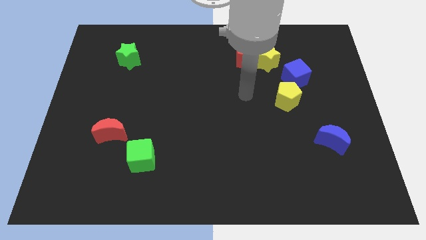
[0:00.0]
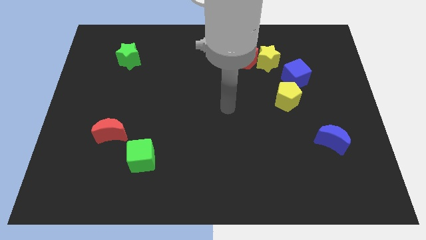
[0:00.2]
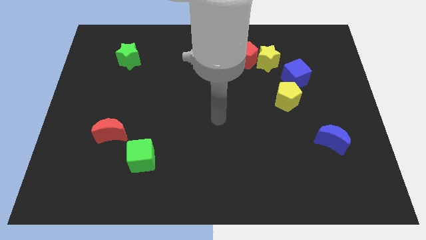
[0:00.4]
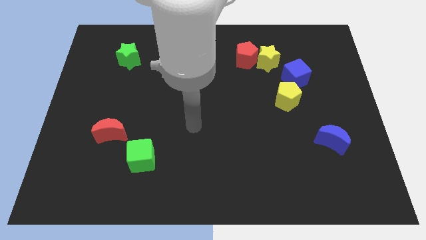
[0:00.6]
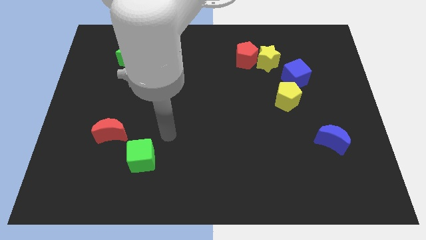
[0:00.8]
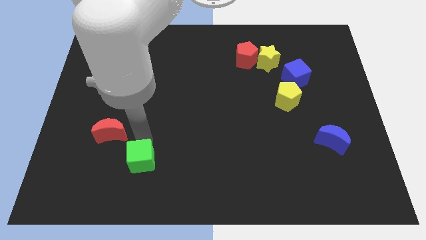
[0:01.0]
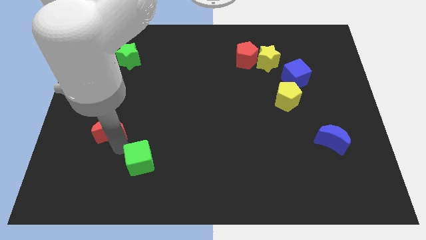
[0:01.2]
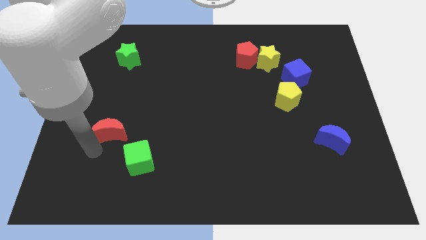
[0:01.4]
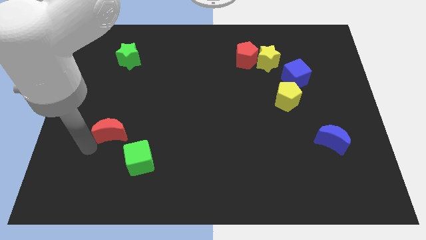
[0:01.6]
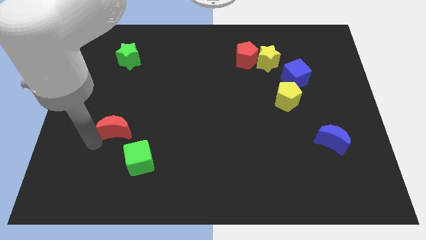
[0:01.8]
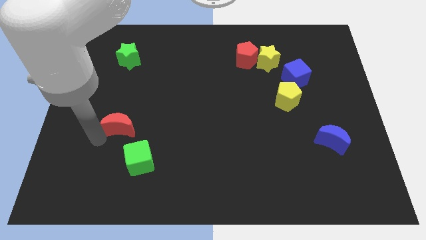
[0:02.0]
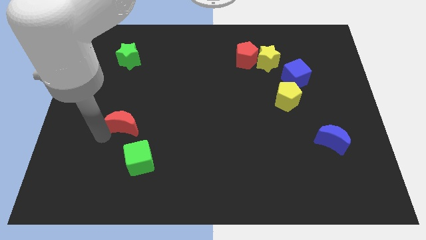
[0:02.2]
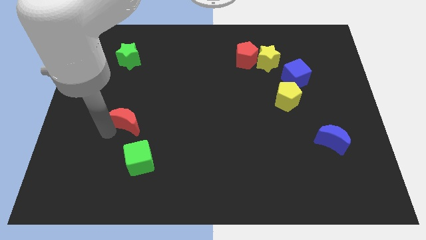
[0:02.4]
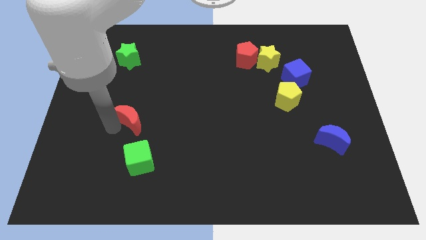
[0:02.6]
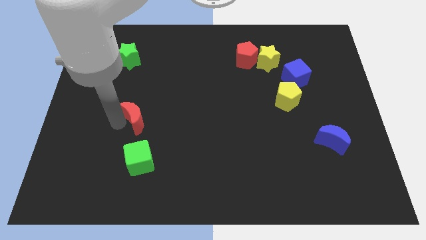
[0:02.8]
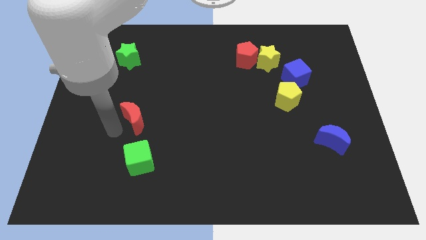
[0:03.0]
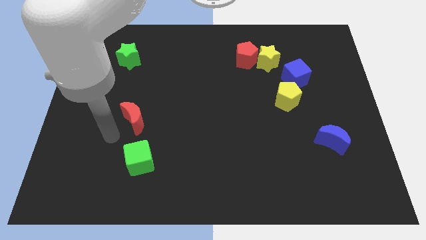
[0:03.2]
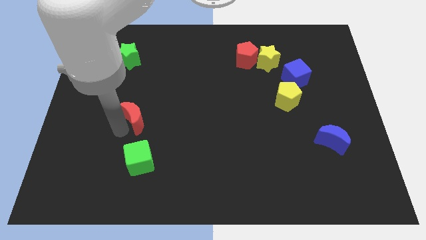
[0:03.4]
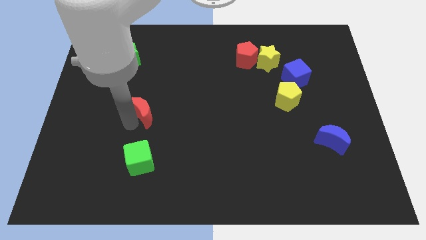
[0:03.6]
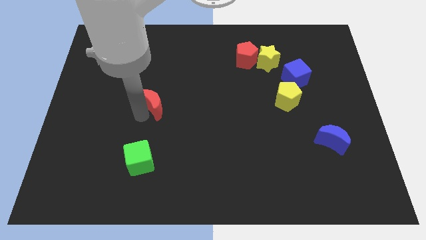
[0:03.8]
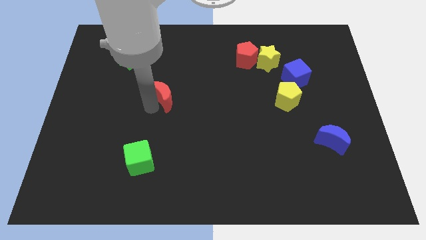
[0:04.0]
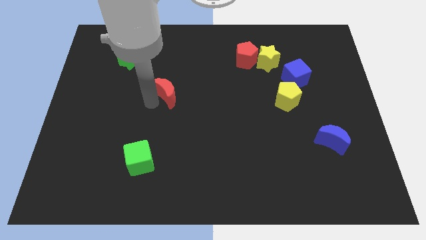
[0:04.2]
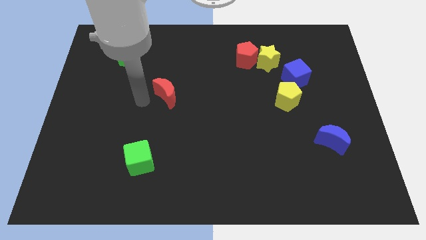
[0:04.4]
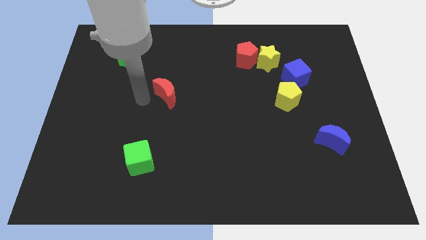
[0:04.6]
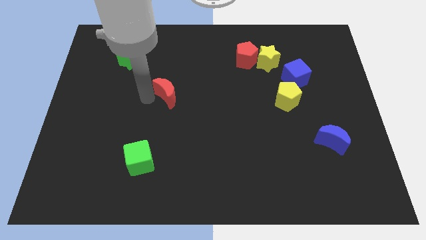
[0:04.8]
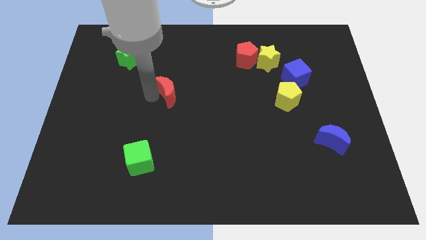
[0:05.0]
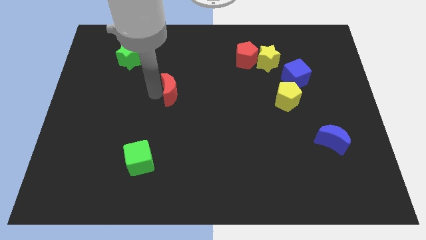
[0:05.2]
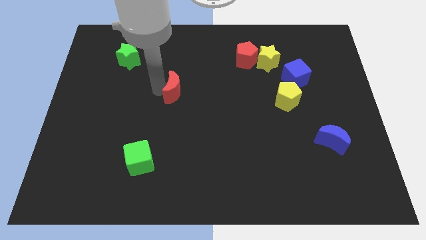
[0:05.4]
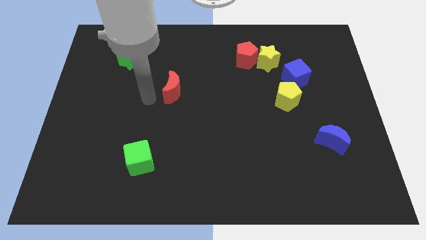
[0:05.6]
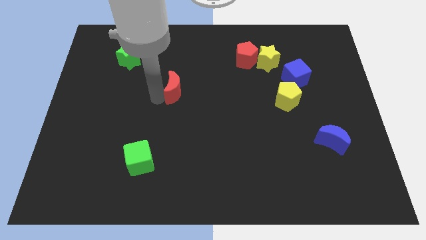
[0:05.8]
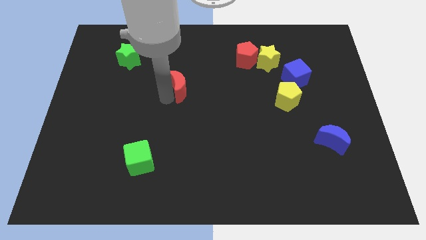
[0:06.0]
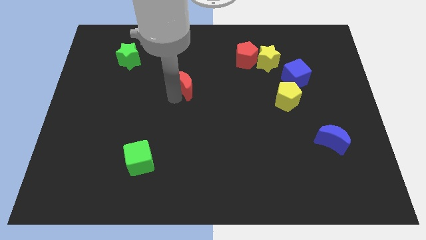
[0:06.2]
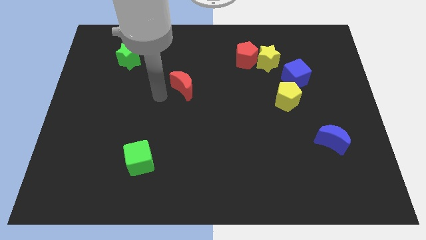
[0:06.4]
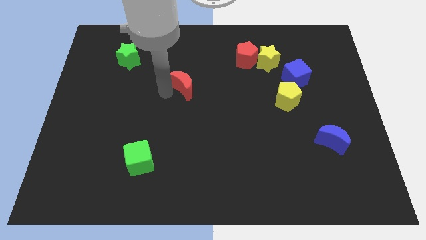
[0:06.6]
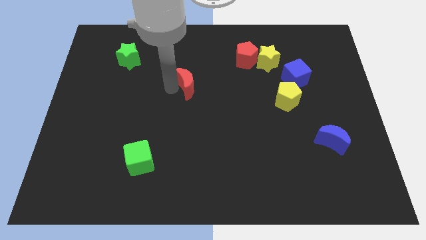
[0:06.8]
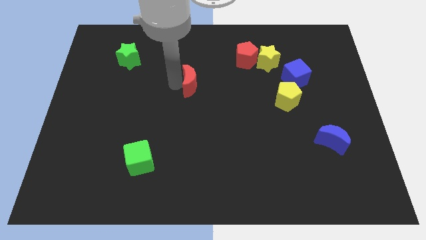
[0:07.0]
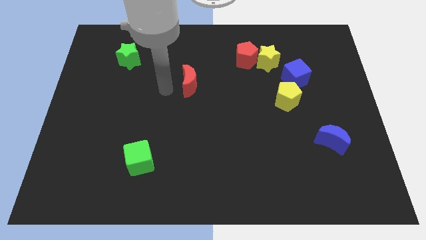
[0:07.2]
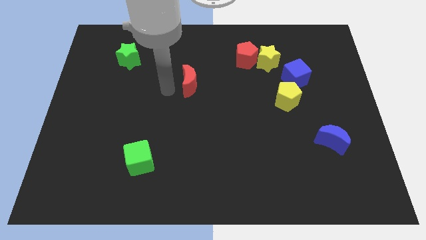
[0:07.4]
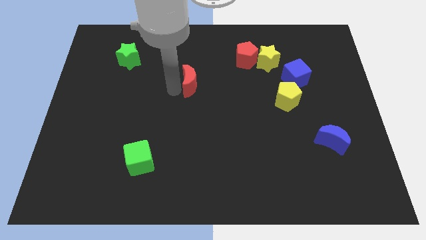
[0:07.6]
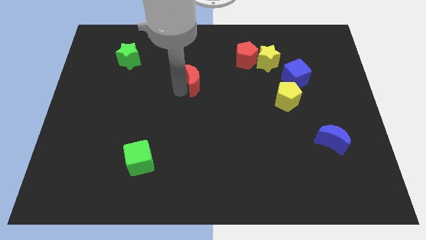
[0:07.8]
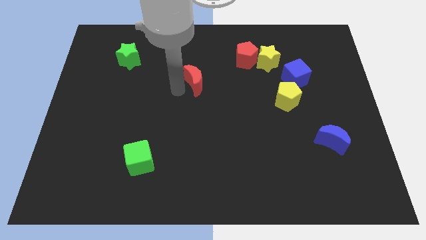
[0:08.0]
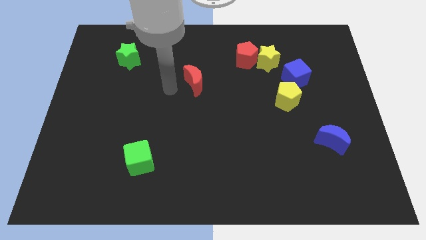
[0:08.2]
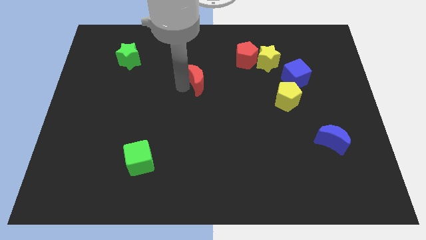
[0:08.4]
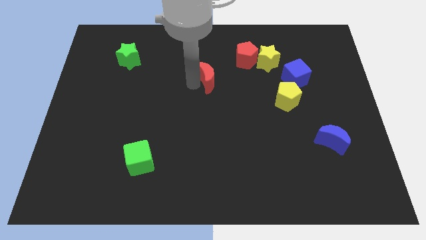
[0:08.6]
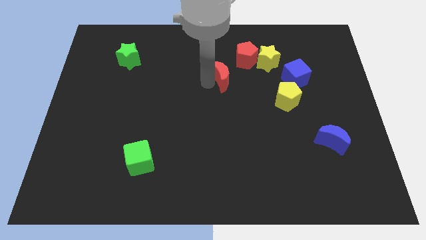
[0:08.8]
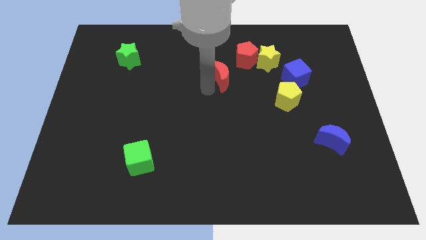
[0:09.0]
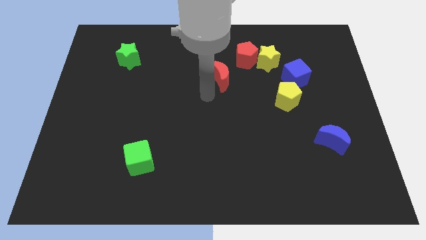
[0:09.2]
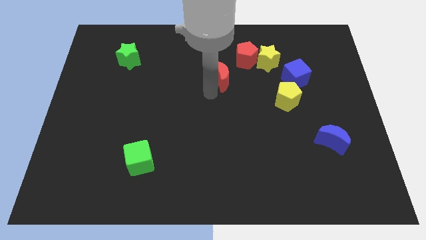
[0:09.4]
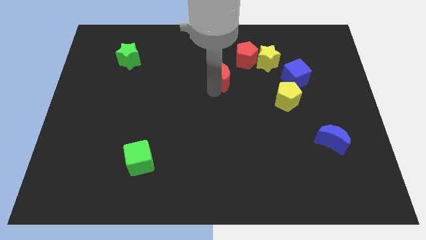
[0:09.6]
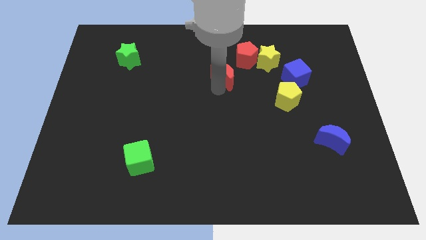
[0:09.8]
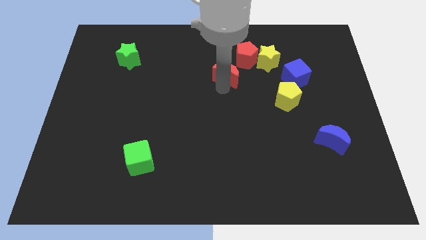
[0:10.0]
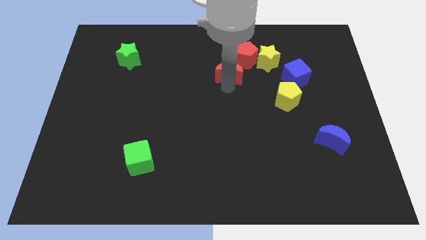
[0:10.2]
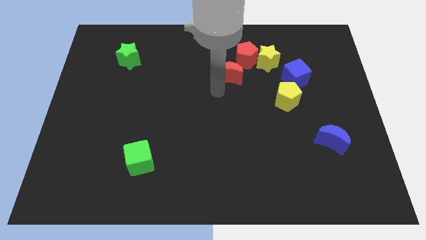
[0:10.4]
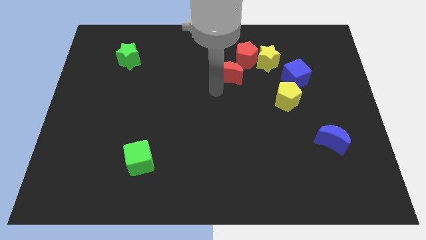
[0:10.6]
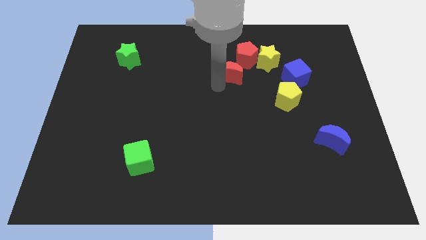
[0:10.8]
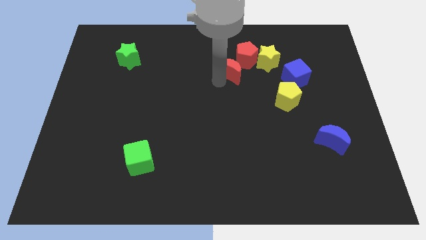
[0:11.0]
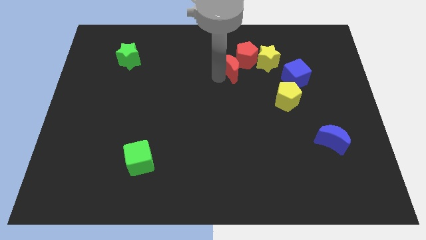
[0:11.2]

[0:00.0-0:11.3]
move the red moon close to the red pentagon

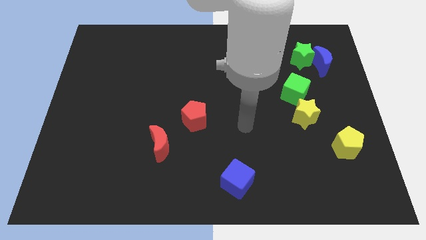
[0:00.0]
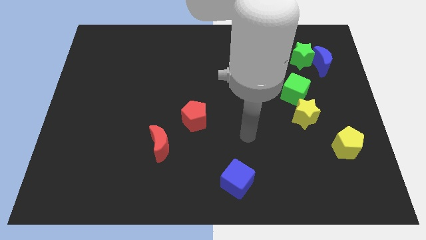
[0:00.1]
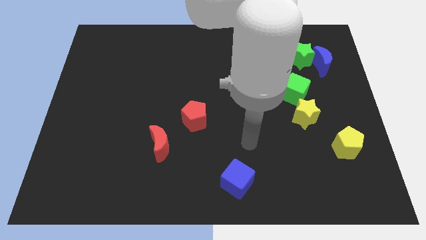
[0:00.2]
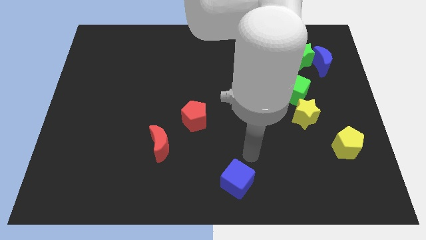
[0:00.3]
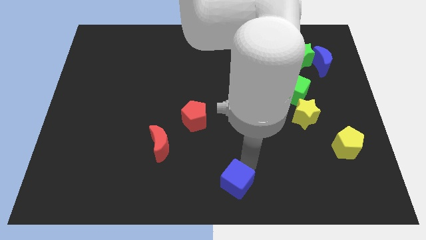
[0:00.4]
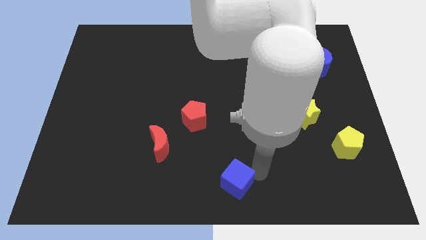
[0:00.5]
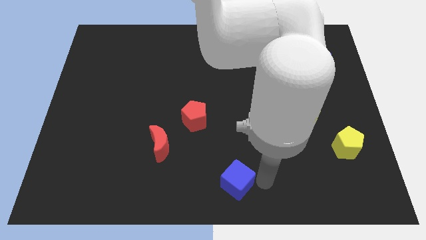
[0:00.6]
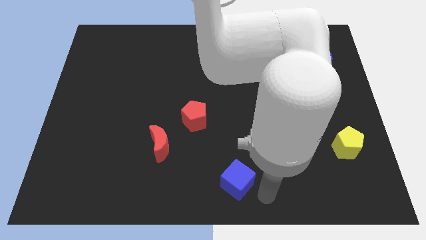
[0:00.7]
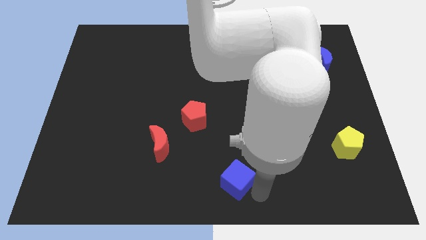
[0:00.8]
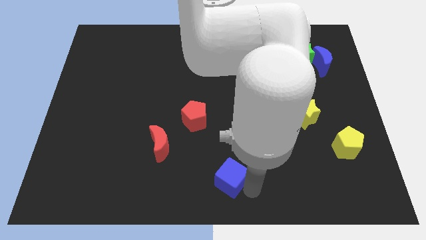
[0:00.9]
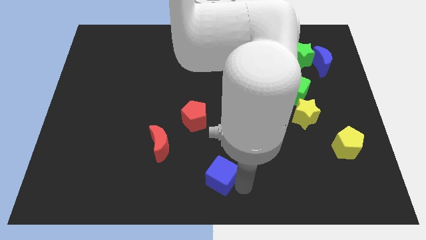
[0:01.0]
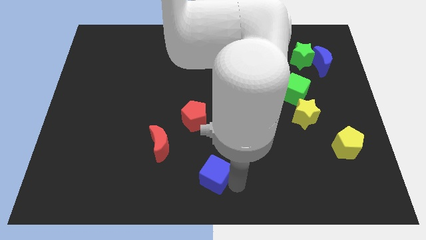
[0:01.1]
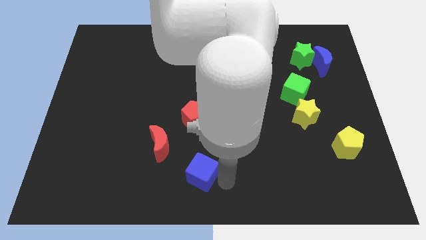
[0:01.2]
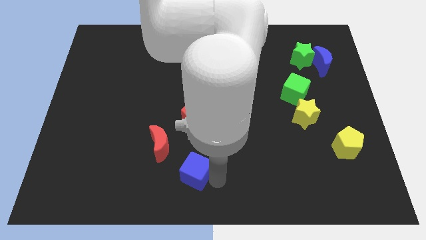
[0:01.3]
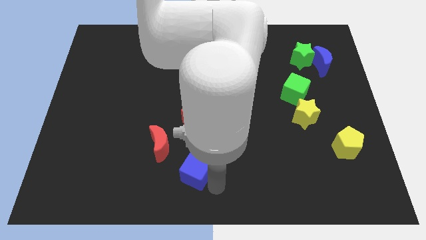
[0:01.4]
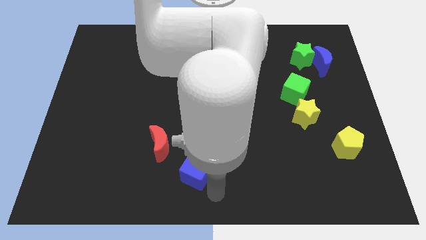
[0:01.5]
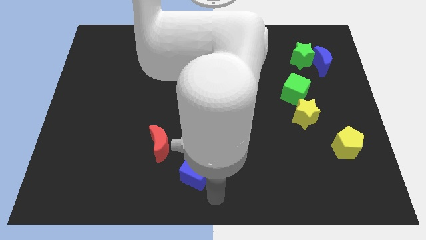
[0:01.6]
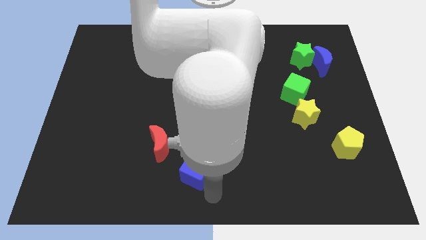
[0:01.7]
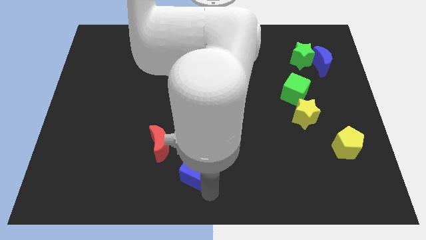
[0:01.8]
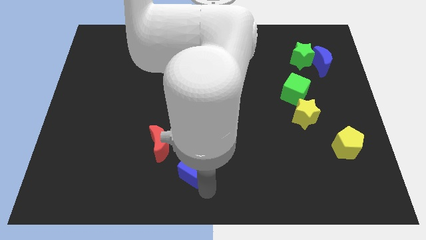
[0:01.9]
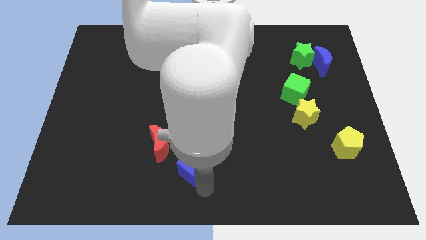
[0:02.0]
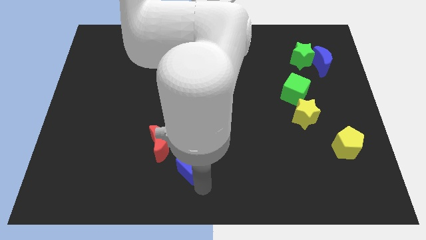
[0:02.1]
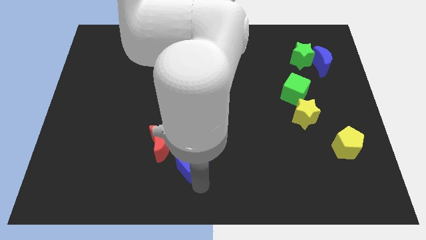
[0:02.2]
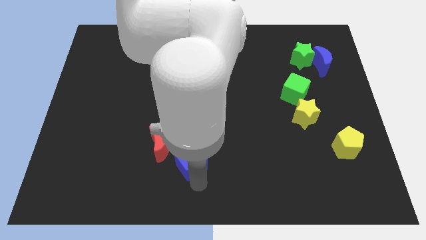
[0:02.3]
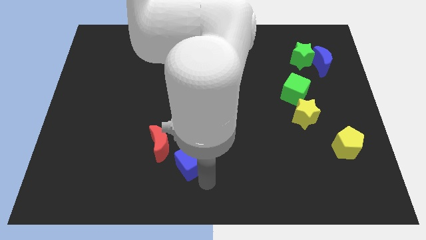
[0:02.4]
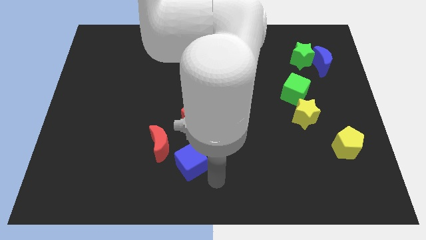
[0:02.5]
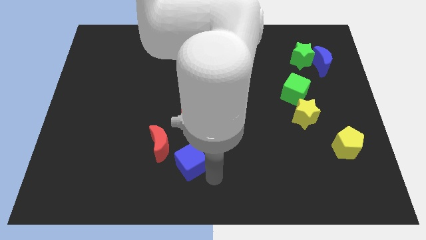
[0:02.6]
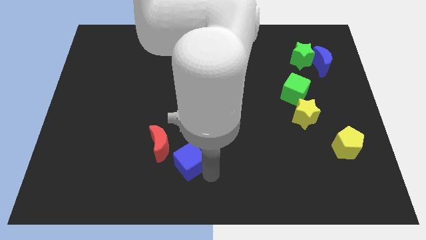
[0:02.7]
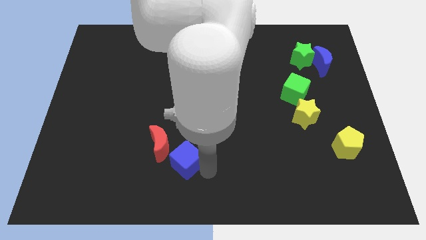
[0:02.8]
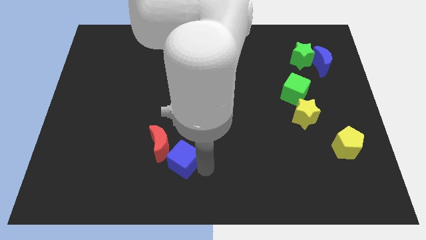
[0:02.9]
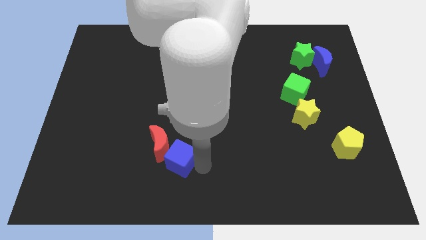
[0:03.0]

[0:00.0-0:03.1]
slide the blue cube next to the red moon
